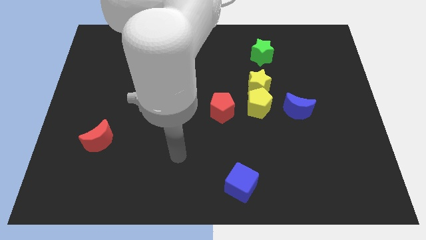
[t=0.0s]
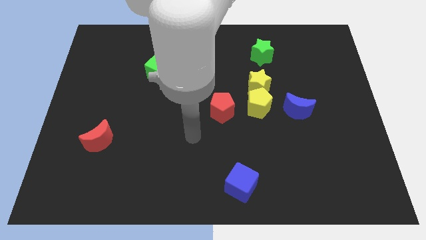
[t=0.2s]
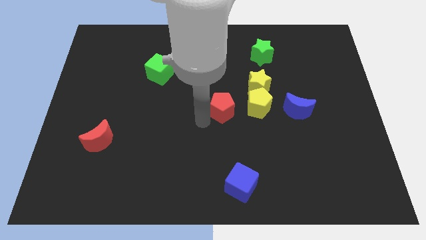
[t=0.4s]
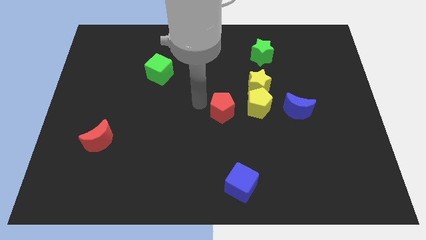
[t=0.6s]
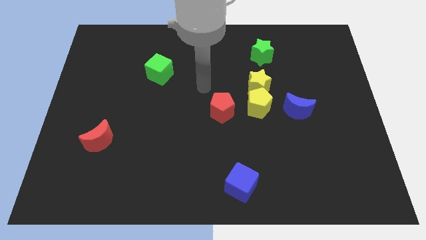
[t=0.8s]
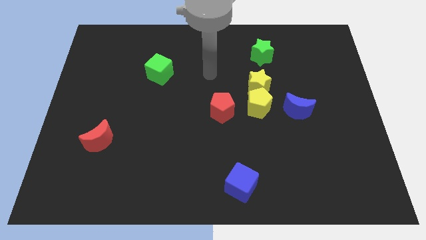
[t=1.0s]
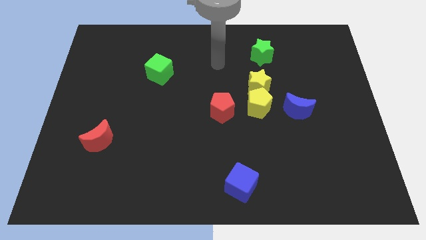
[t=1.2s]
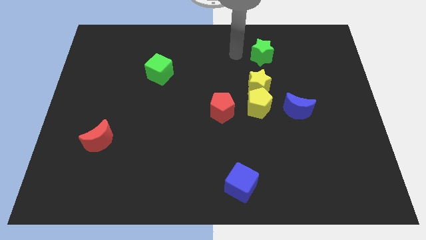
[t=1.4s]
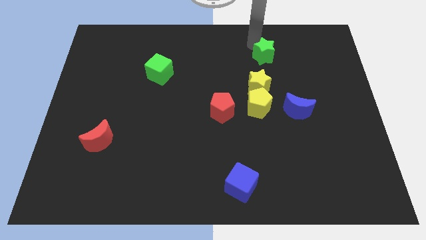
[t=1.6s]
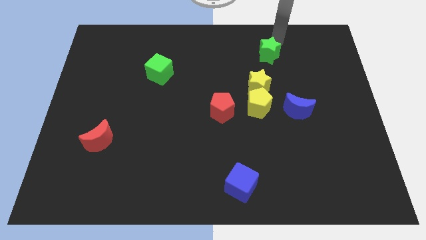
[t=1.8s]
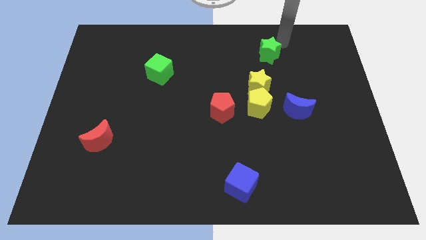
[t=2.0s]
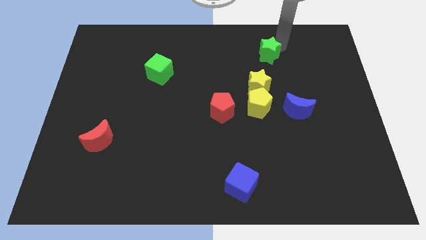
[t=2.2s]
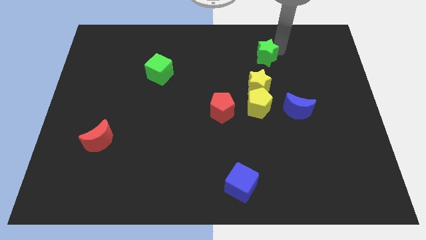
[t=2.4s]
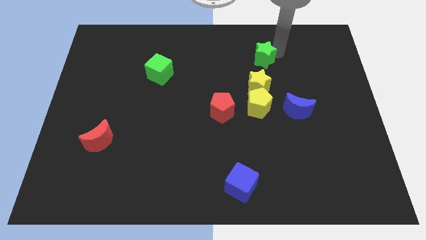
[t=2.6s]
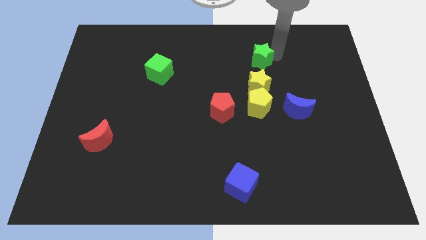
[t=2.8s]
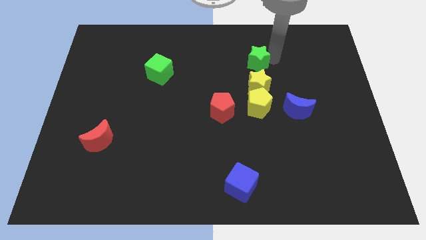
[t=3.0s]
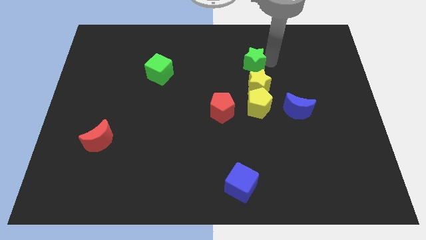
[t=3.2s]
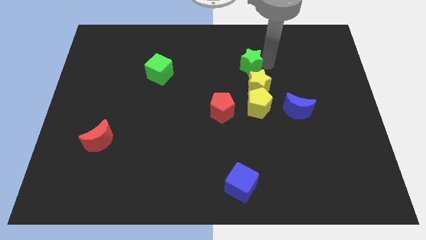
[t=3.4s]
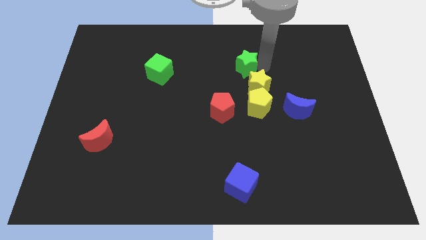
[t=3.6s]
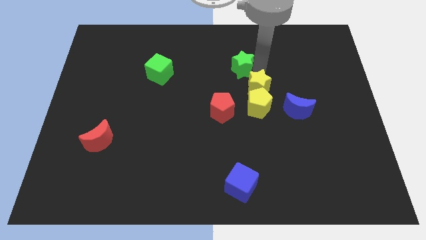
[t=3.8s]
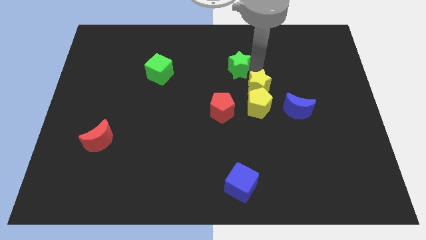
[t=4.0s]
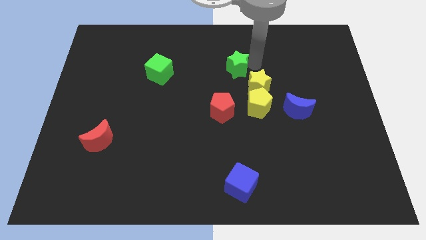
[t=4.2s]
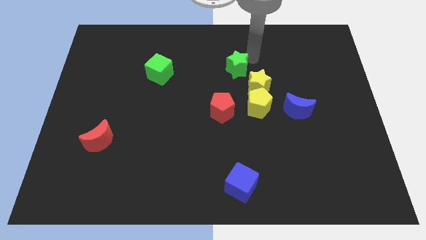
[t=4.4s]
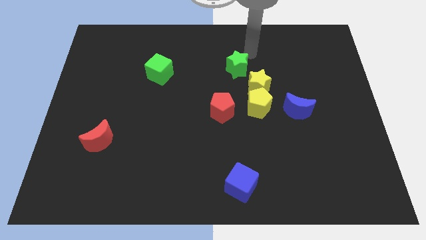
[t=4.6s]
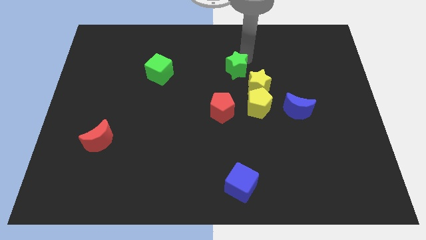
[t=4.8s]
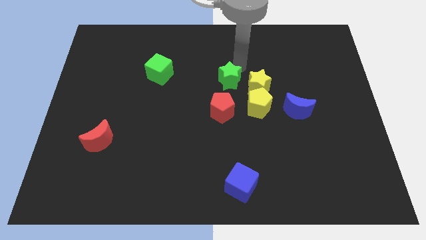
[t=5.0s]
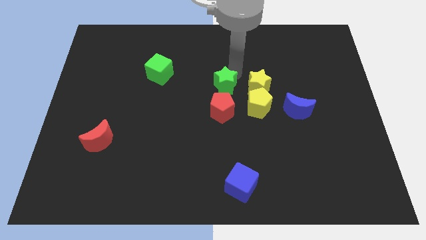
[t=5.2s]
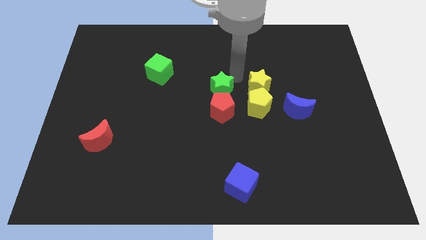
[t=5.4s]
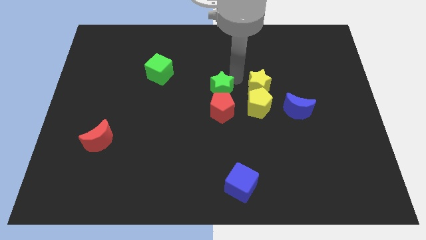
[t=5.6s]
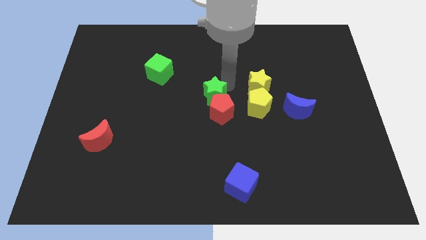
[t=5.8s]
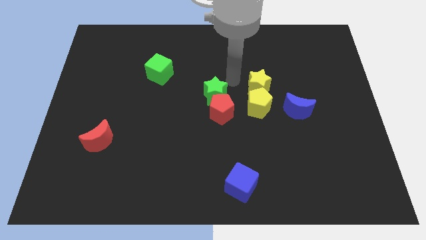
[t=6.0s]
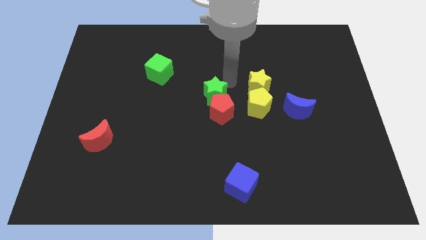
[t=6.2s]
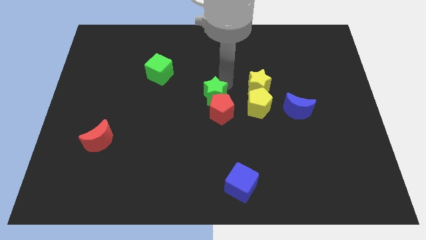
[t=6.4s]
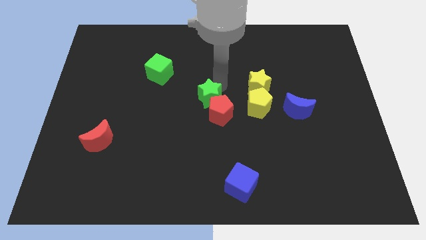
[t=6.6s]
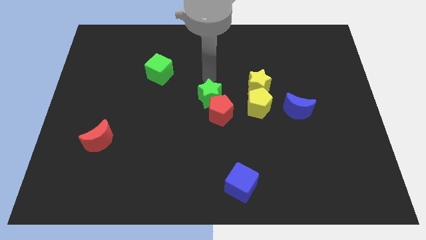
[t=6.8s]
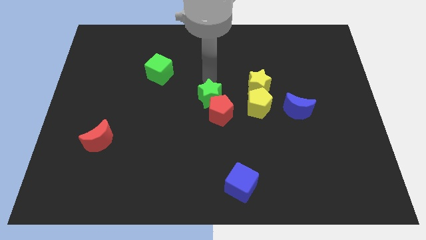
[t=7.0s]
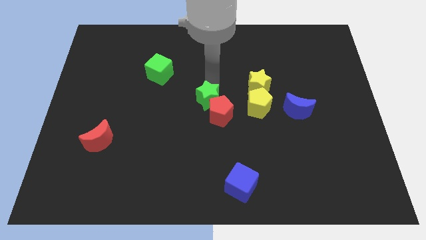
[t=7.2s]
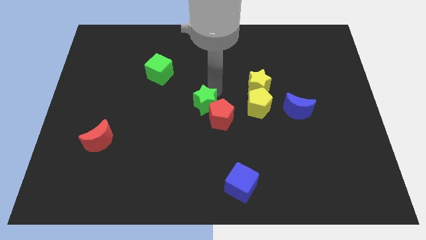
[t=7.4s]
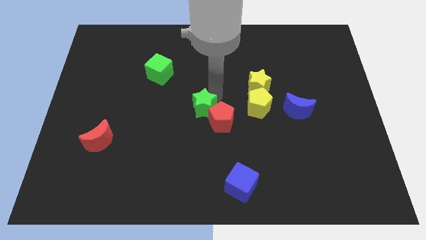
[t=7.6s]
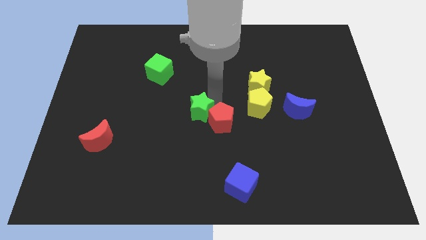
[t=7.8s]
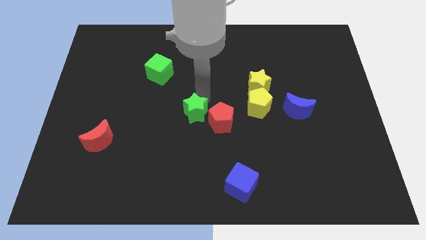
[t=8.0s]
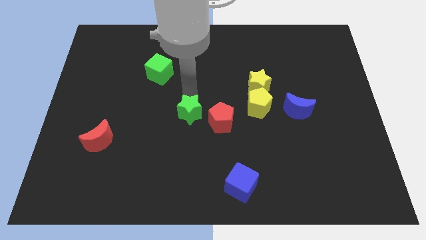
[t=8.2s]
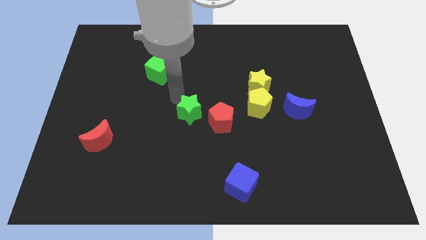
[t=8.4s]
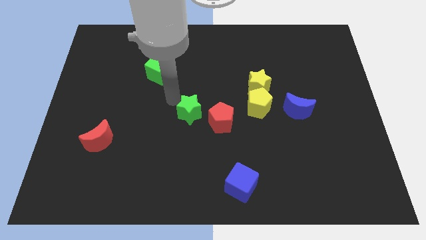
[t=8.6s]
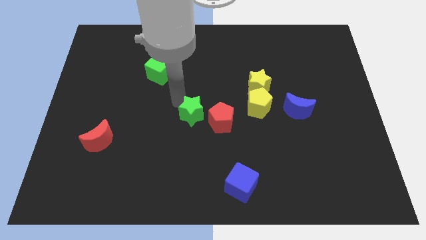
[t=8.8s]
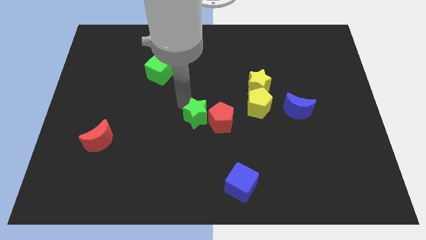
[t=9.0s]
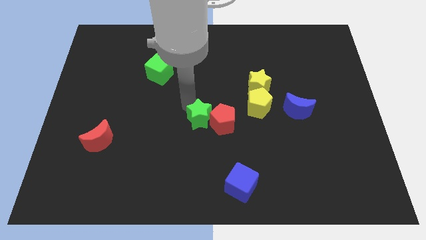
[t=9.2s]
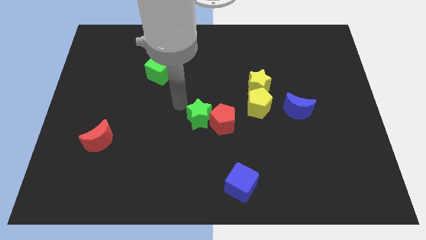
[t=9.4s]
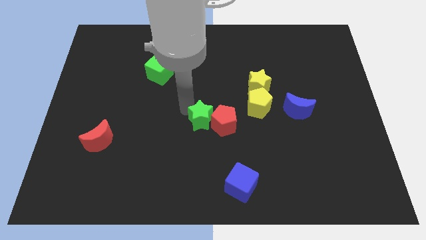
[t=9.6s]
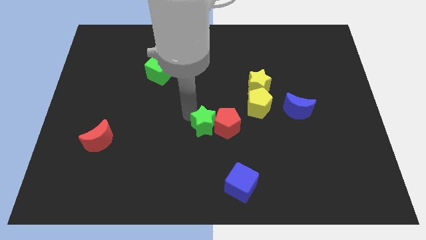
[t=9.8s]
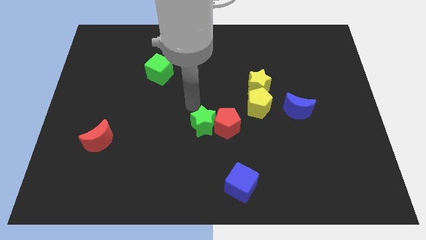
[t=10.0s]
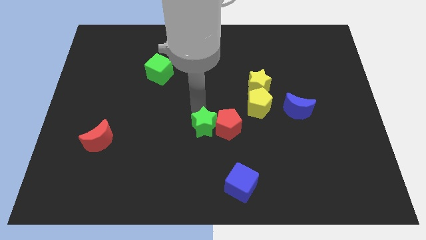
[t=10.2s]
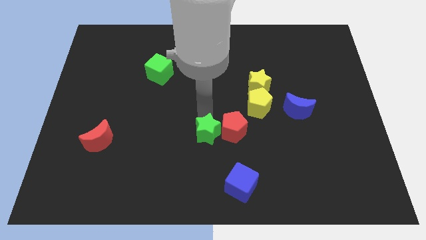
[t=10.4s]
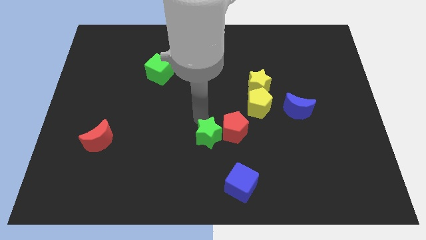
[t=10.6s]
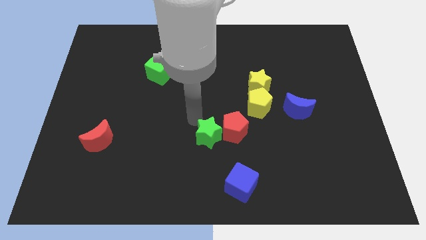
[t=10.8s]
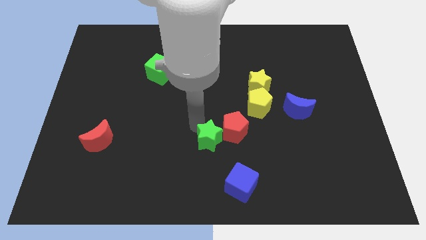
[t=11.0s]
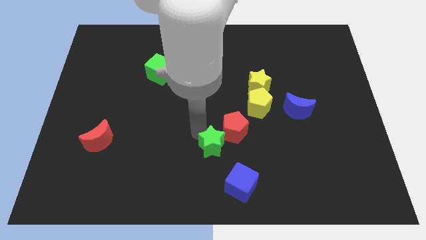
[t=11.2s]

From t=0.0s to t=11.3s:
put the green star below the red pentagon

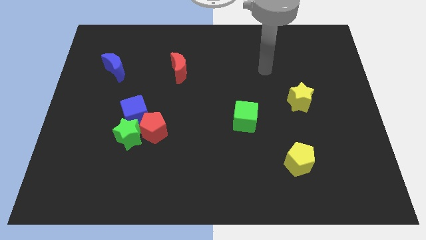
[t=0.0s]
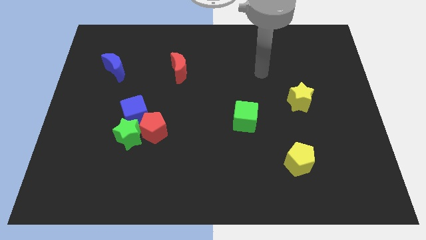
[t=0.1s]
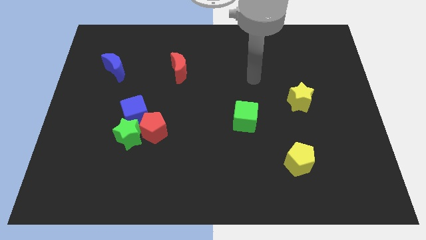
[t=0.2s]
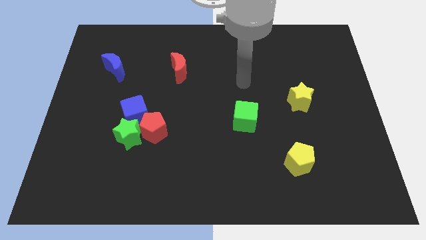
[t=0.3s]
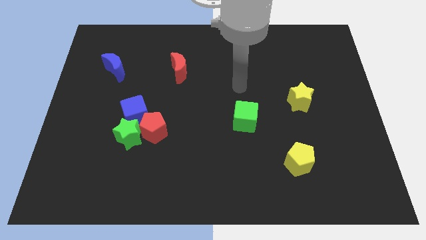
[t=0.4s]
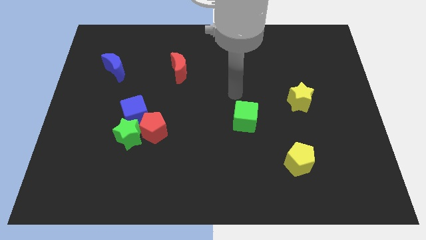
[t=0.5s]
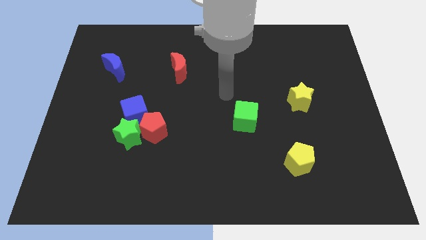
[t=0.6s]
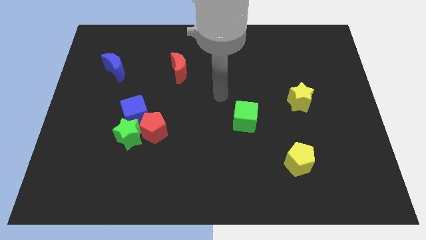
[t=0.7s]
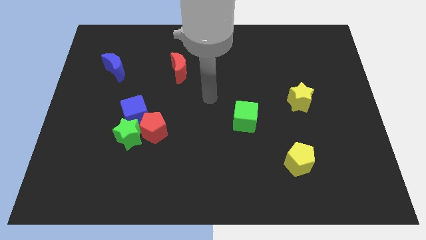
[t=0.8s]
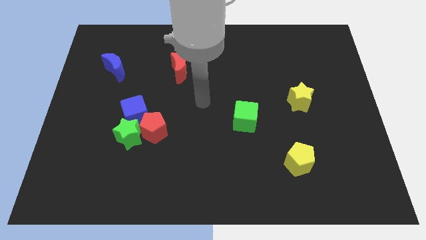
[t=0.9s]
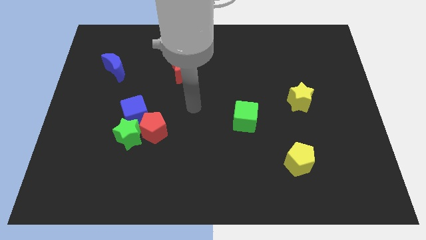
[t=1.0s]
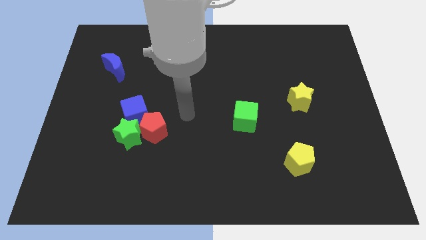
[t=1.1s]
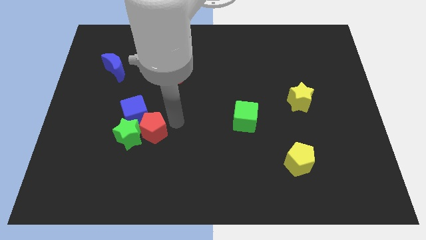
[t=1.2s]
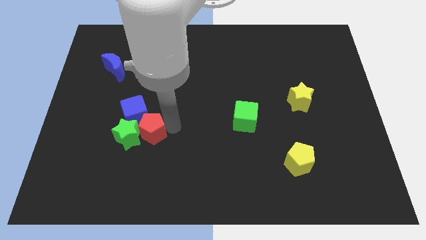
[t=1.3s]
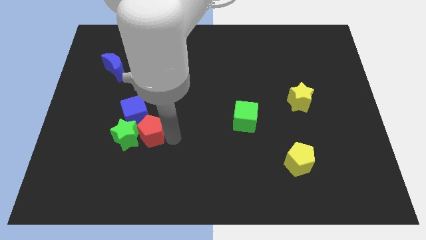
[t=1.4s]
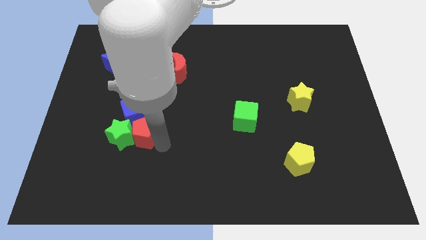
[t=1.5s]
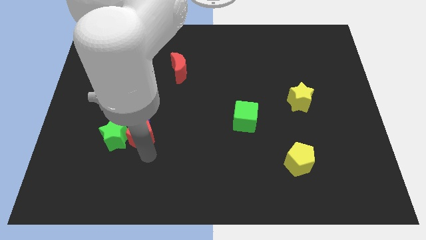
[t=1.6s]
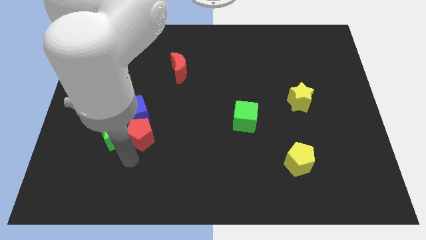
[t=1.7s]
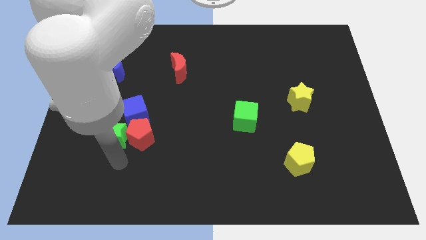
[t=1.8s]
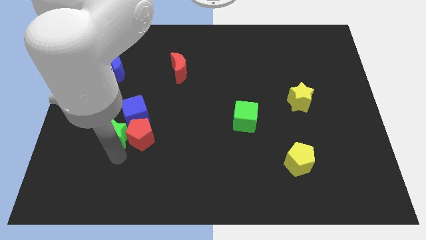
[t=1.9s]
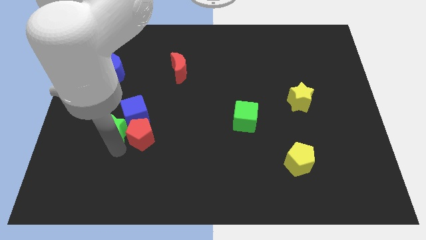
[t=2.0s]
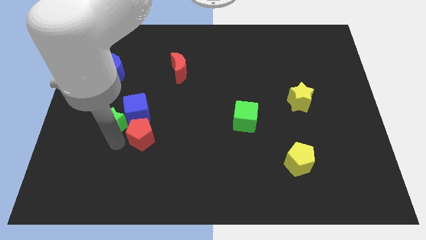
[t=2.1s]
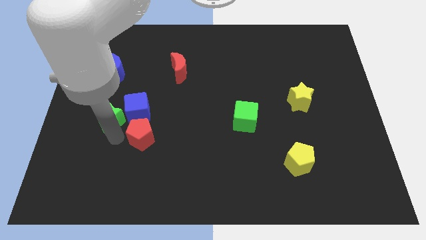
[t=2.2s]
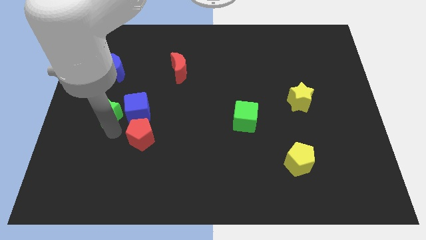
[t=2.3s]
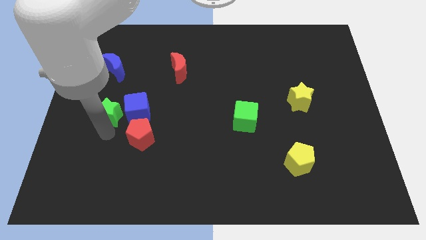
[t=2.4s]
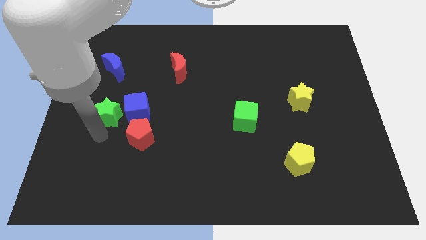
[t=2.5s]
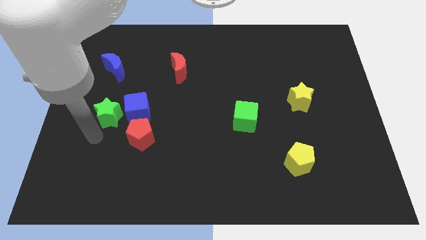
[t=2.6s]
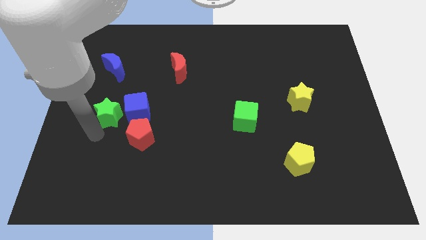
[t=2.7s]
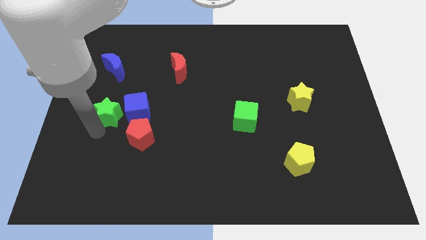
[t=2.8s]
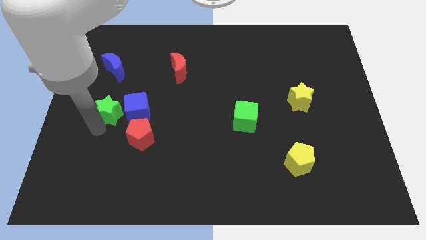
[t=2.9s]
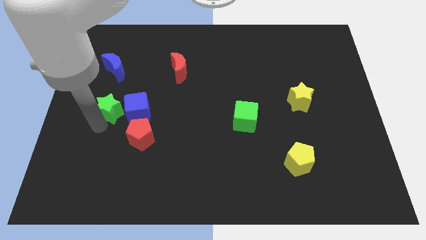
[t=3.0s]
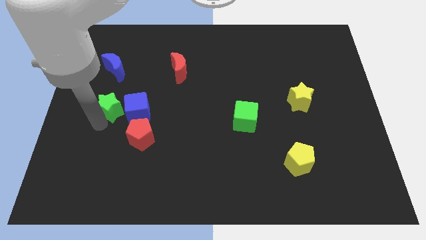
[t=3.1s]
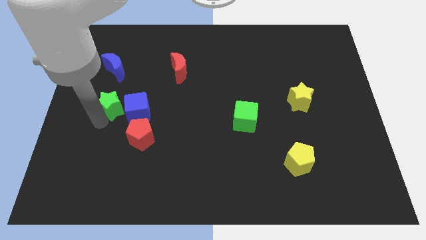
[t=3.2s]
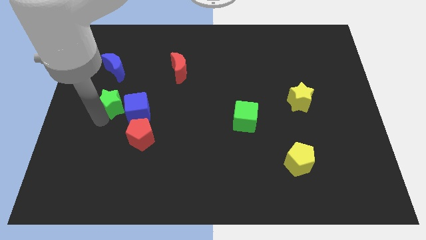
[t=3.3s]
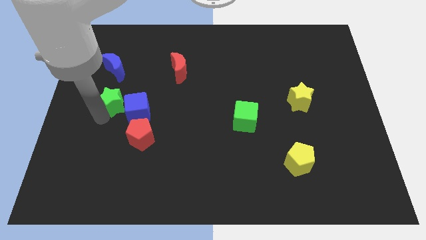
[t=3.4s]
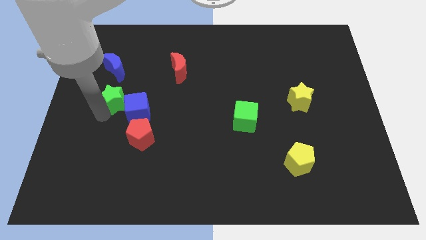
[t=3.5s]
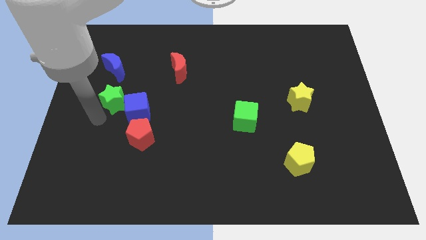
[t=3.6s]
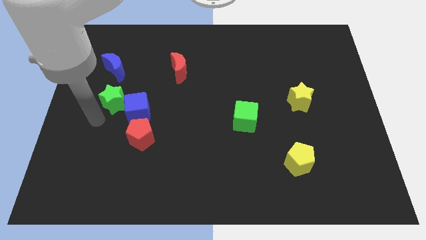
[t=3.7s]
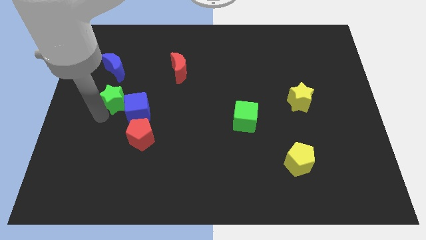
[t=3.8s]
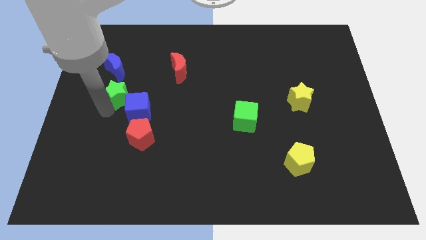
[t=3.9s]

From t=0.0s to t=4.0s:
move the green star diagonally down and to the right of the blue moon
